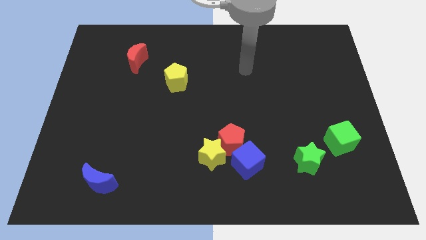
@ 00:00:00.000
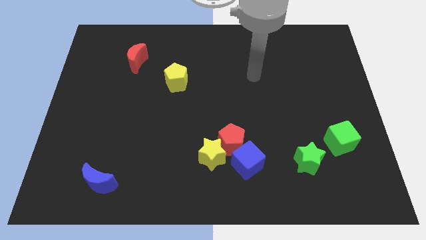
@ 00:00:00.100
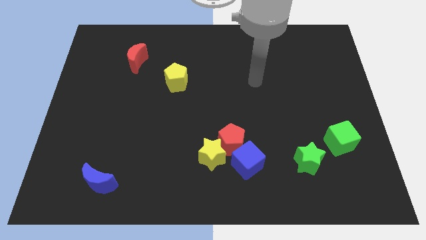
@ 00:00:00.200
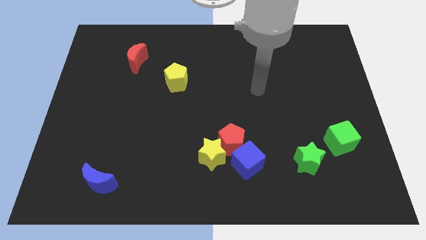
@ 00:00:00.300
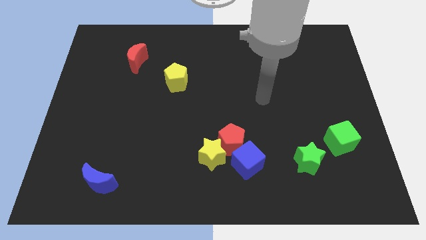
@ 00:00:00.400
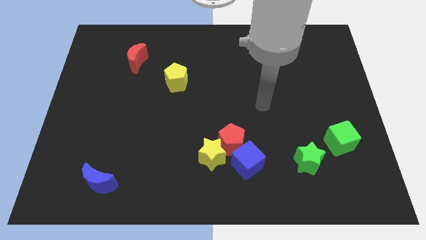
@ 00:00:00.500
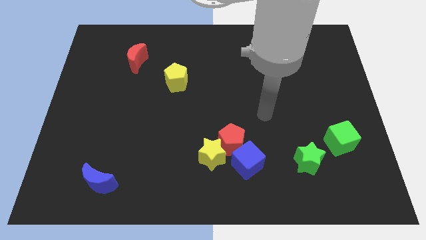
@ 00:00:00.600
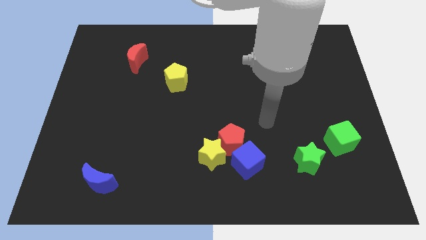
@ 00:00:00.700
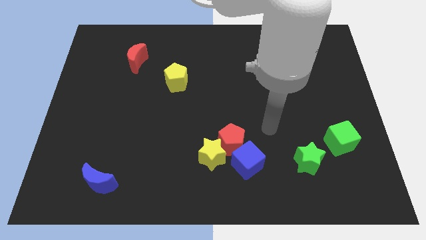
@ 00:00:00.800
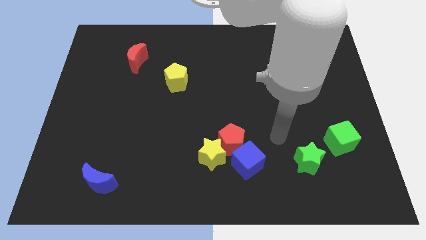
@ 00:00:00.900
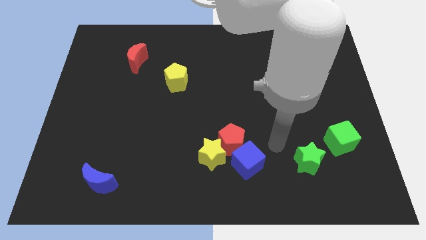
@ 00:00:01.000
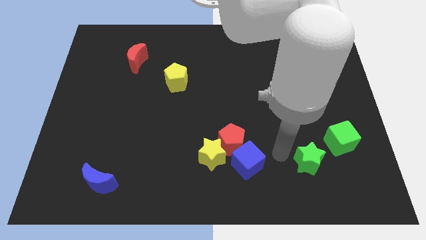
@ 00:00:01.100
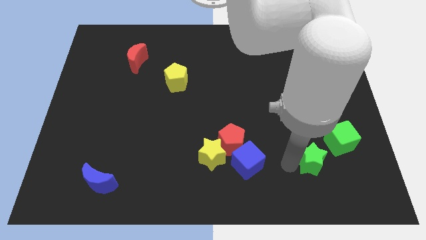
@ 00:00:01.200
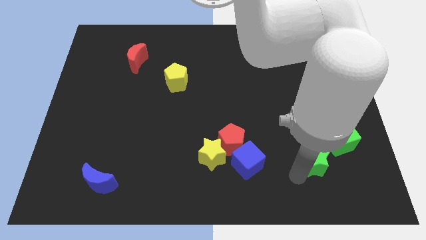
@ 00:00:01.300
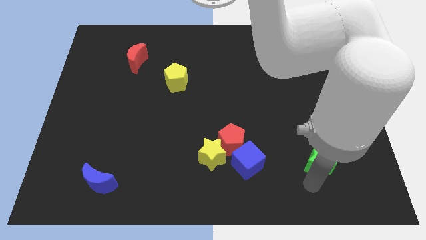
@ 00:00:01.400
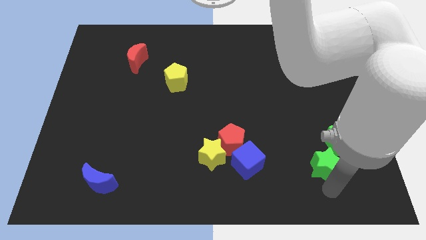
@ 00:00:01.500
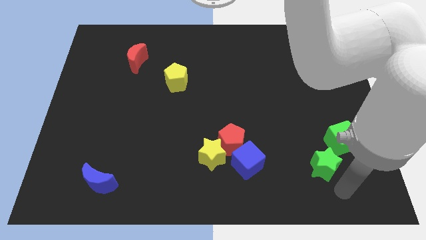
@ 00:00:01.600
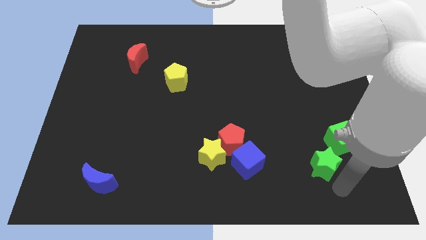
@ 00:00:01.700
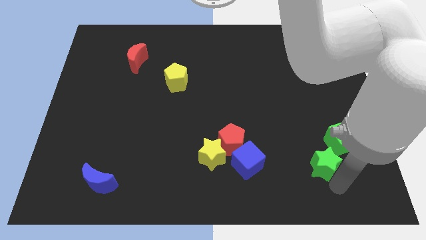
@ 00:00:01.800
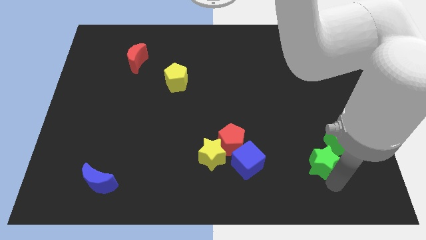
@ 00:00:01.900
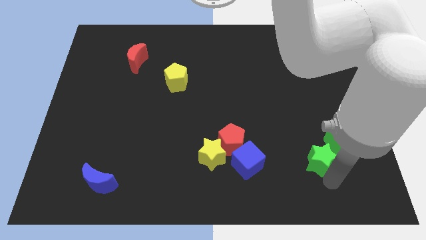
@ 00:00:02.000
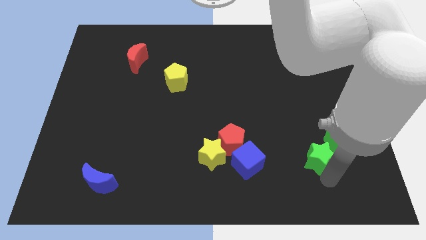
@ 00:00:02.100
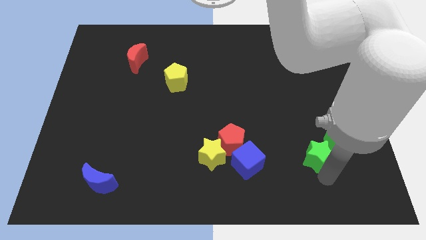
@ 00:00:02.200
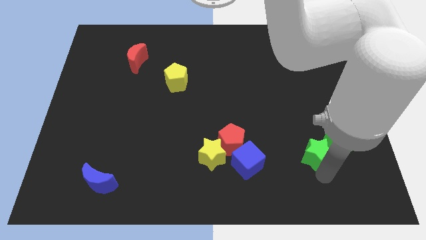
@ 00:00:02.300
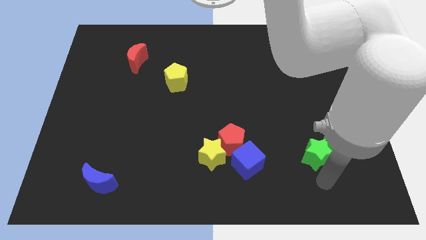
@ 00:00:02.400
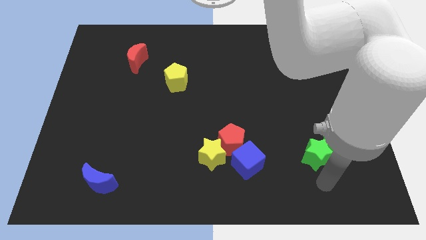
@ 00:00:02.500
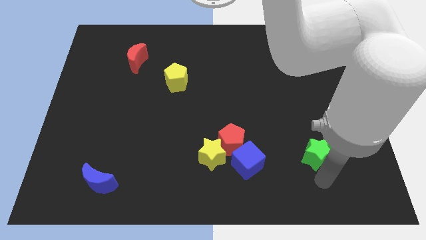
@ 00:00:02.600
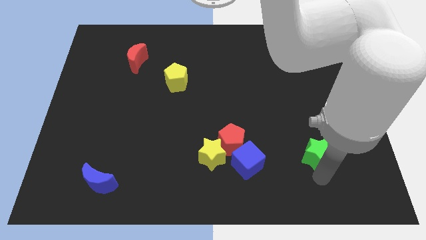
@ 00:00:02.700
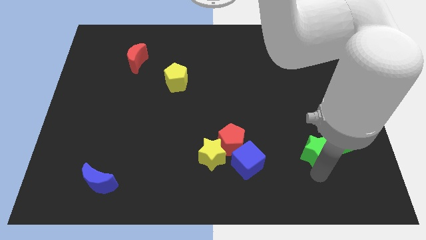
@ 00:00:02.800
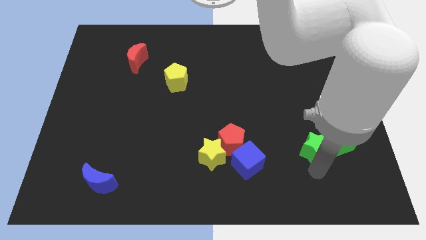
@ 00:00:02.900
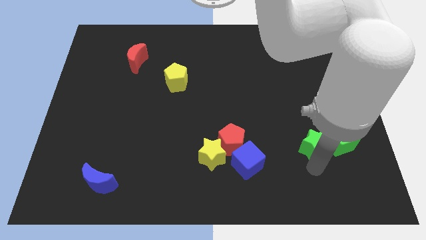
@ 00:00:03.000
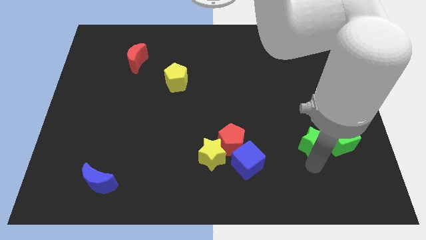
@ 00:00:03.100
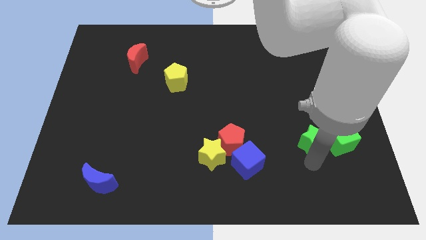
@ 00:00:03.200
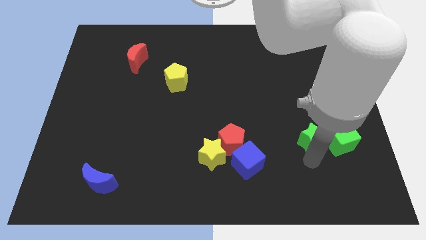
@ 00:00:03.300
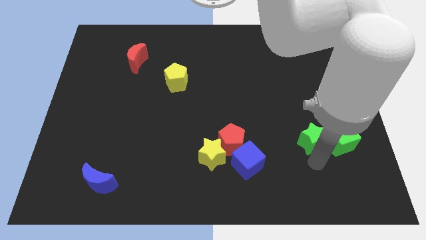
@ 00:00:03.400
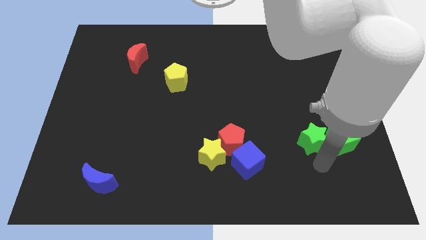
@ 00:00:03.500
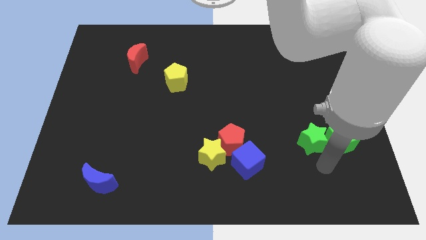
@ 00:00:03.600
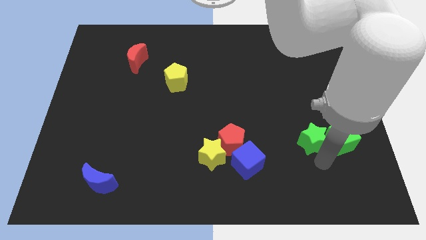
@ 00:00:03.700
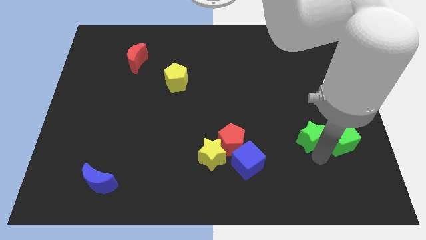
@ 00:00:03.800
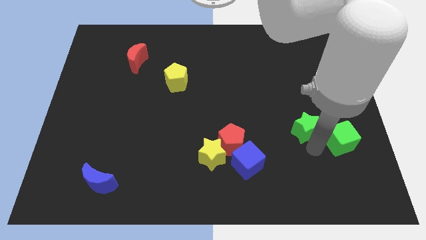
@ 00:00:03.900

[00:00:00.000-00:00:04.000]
slide the green star somewhat upwards

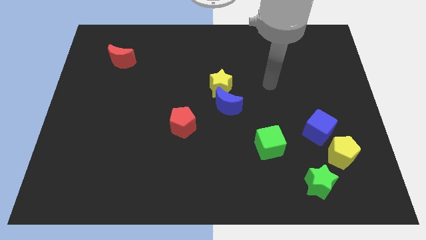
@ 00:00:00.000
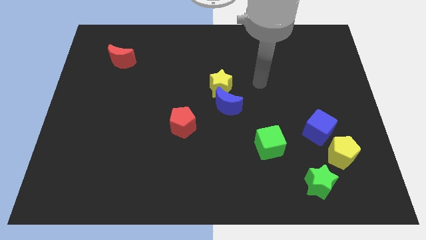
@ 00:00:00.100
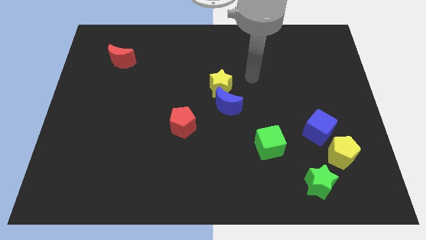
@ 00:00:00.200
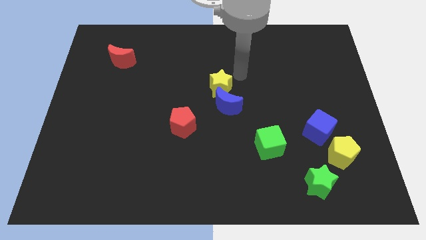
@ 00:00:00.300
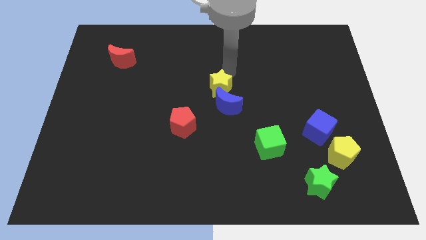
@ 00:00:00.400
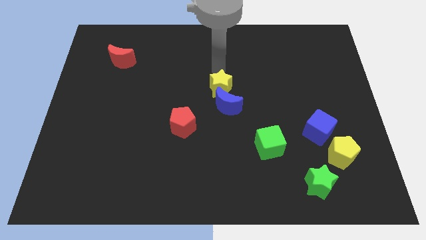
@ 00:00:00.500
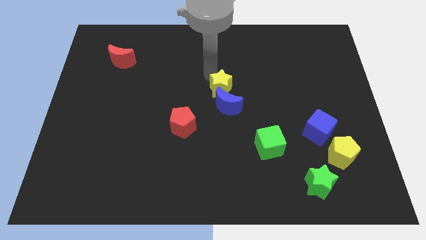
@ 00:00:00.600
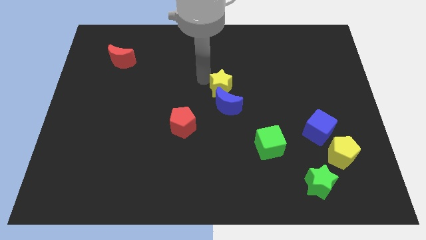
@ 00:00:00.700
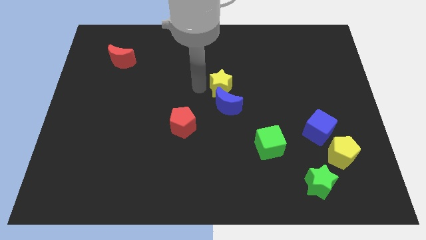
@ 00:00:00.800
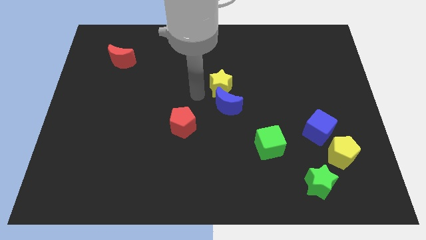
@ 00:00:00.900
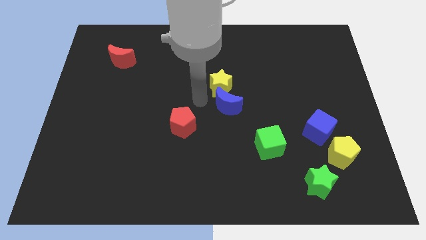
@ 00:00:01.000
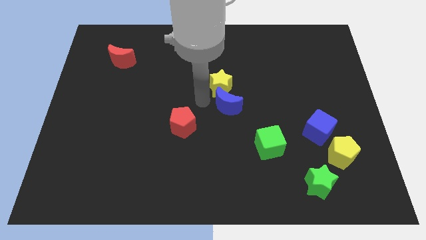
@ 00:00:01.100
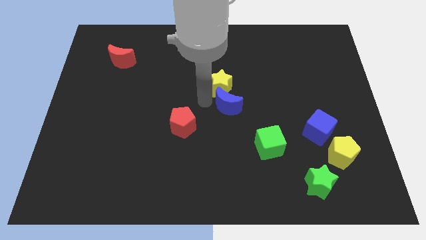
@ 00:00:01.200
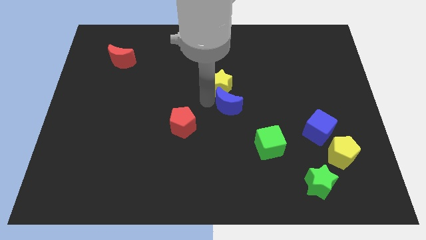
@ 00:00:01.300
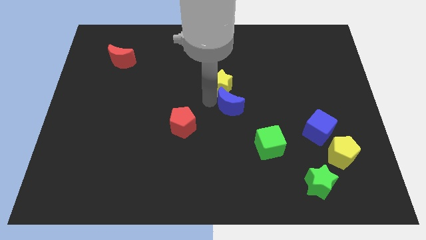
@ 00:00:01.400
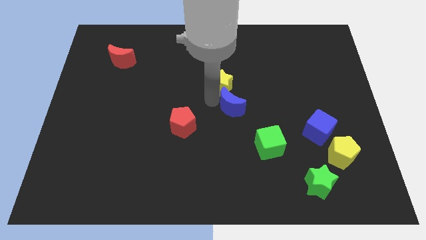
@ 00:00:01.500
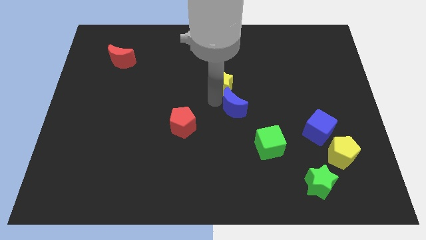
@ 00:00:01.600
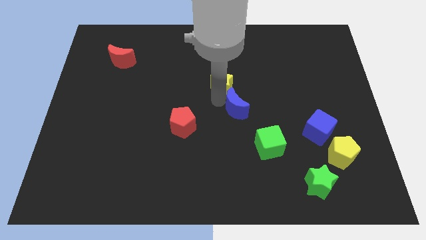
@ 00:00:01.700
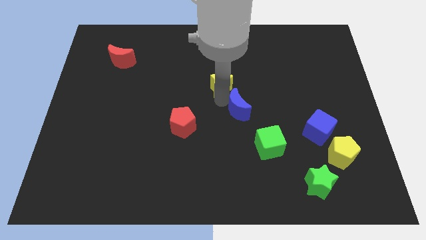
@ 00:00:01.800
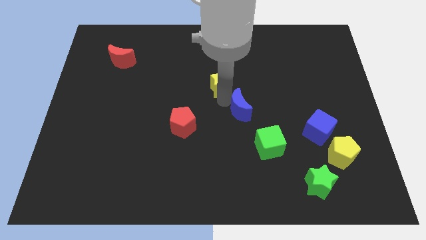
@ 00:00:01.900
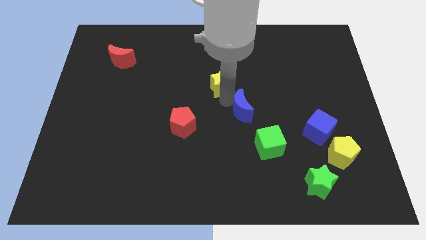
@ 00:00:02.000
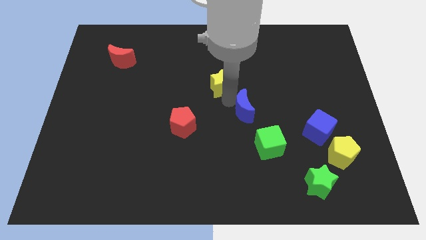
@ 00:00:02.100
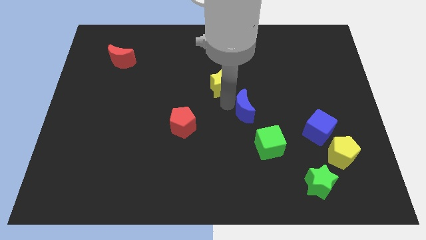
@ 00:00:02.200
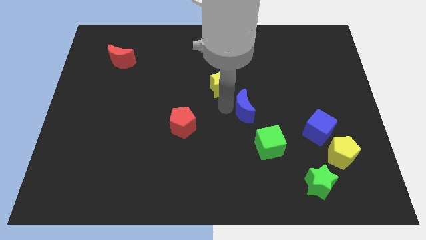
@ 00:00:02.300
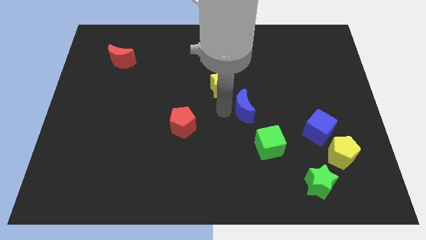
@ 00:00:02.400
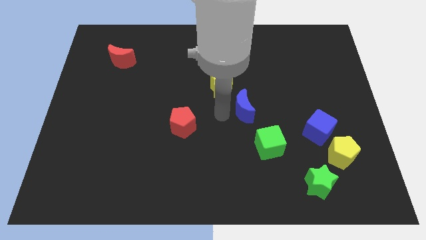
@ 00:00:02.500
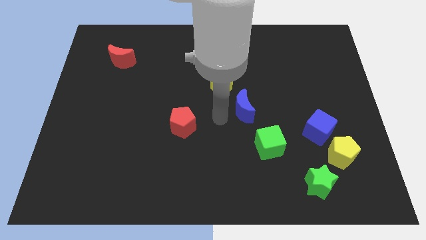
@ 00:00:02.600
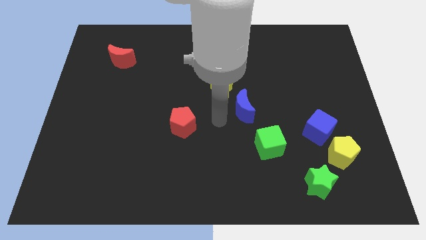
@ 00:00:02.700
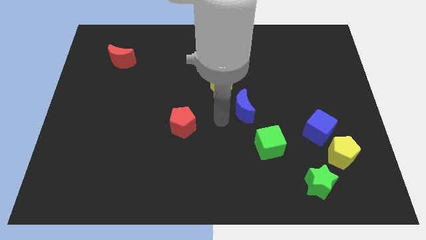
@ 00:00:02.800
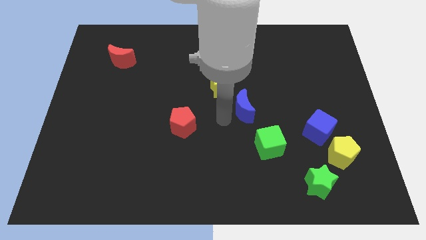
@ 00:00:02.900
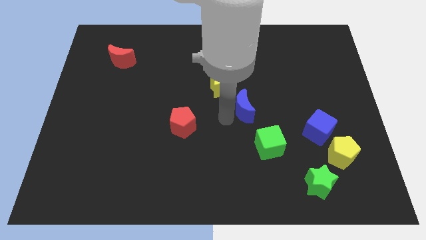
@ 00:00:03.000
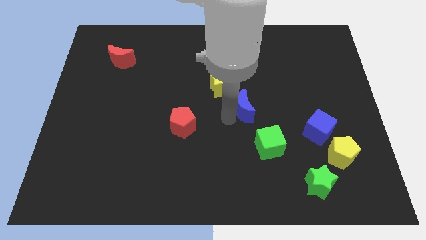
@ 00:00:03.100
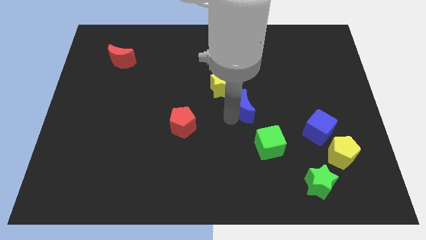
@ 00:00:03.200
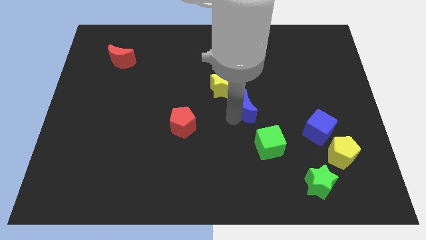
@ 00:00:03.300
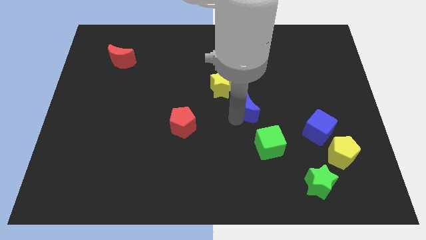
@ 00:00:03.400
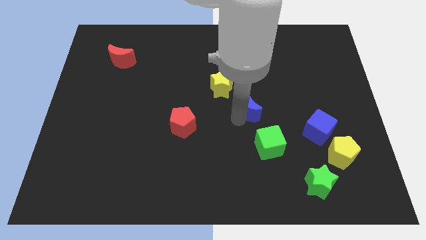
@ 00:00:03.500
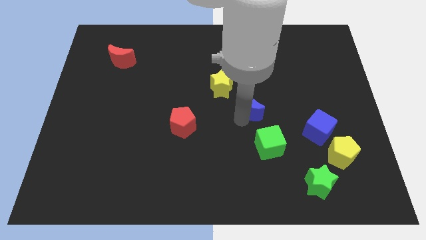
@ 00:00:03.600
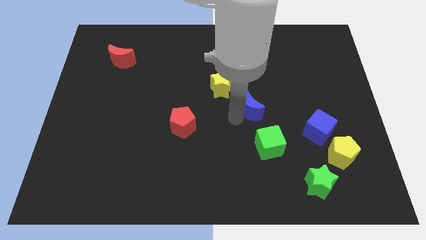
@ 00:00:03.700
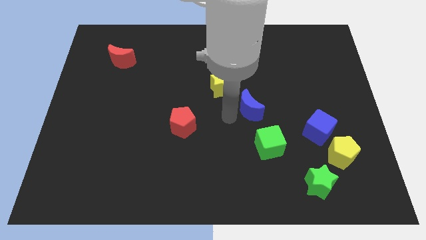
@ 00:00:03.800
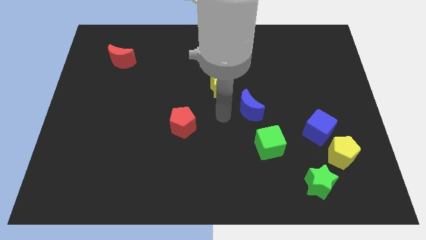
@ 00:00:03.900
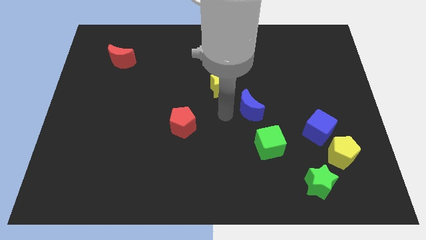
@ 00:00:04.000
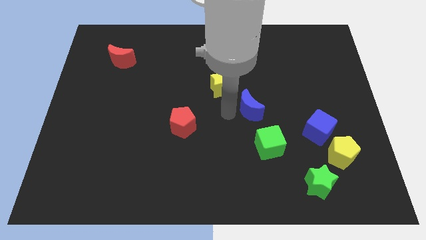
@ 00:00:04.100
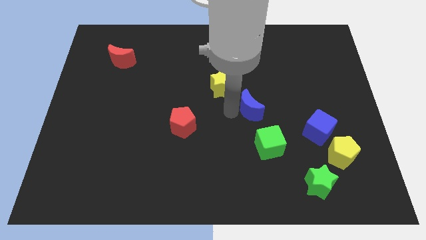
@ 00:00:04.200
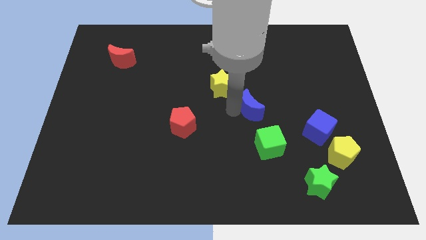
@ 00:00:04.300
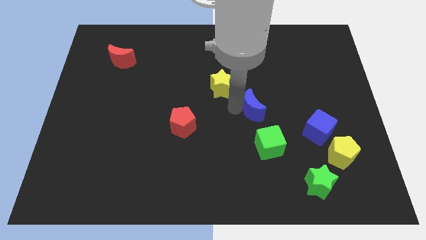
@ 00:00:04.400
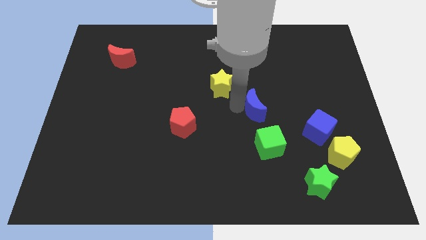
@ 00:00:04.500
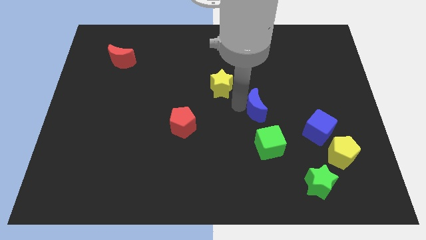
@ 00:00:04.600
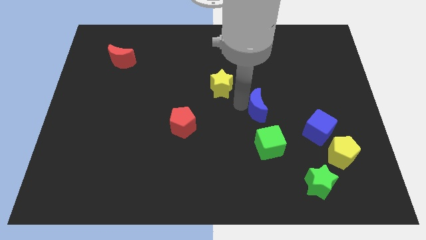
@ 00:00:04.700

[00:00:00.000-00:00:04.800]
slightly move the blue moon right
